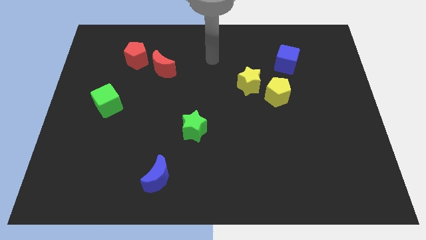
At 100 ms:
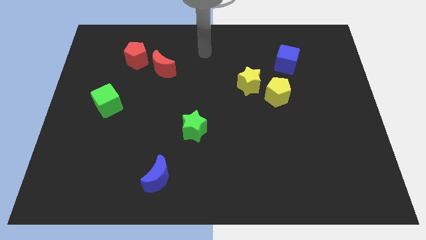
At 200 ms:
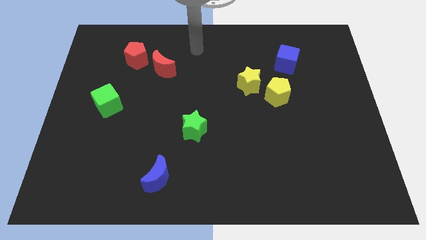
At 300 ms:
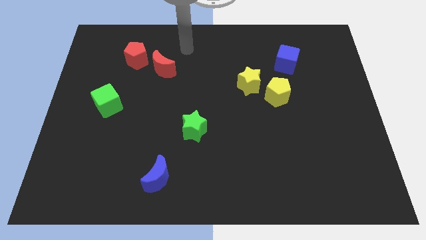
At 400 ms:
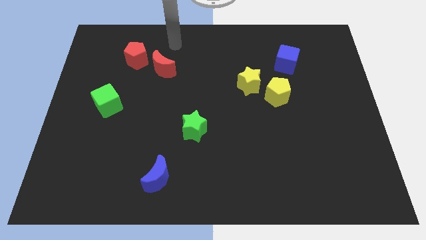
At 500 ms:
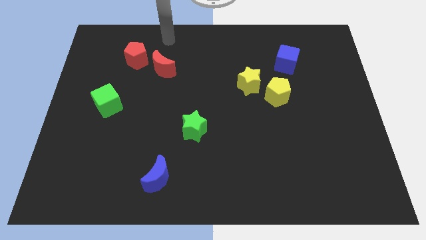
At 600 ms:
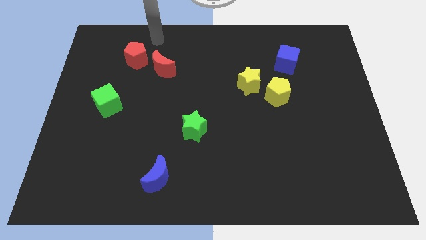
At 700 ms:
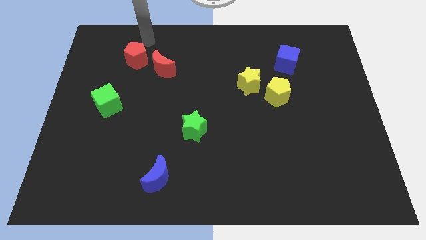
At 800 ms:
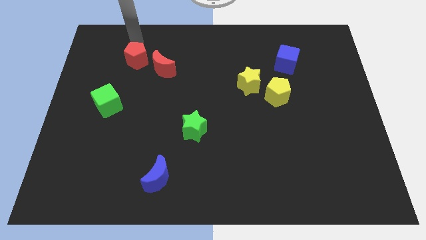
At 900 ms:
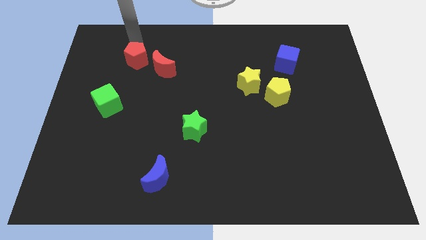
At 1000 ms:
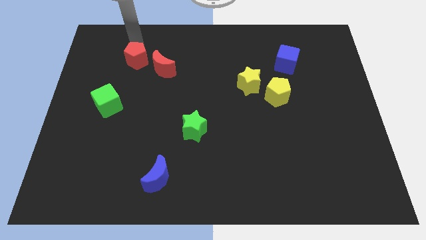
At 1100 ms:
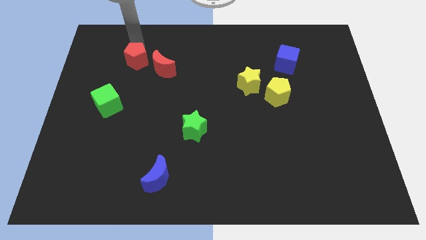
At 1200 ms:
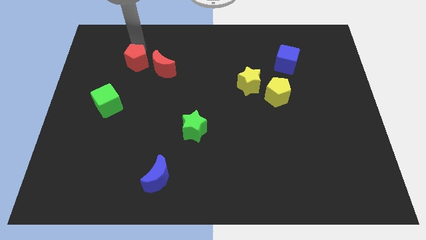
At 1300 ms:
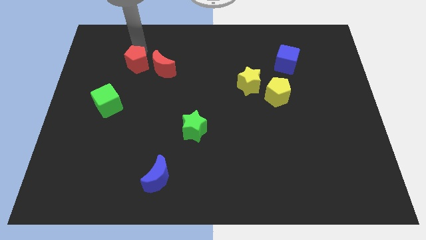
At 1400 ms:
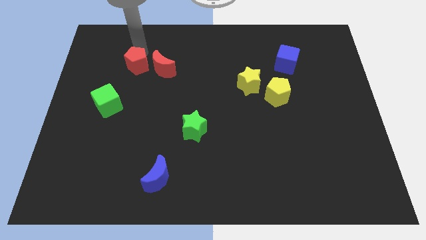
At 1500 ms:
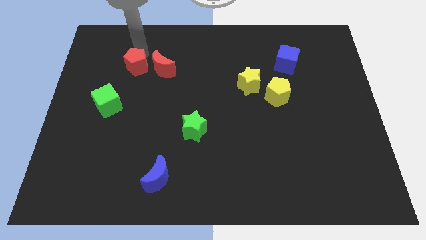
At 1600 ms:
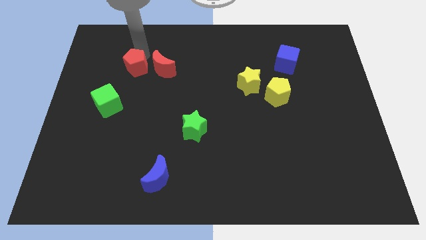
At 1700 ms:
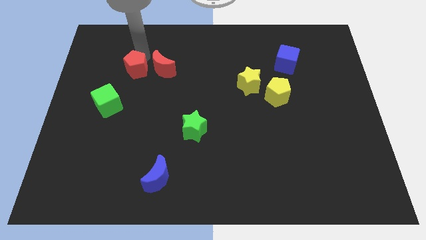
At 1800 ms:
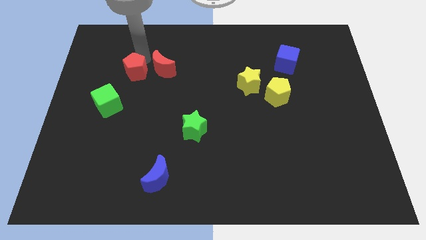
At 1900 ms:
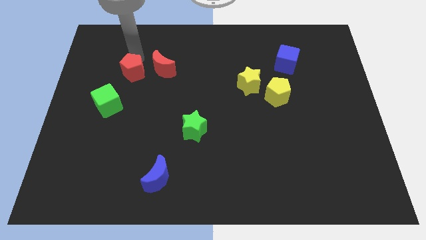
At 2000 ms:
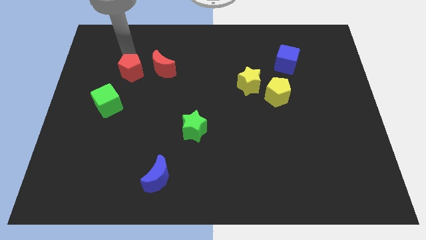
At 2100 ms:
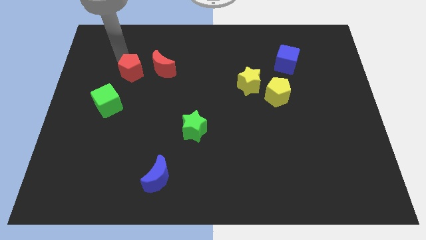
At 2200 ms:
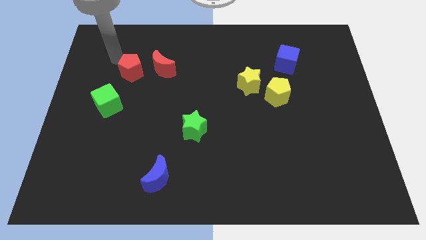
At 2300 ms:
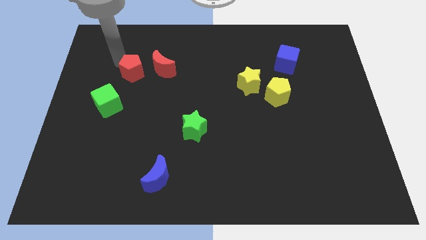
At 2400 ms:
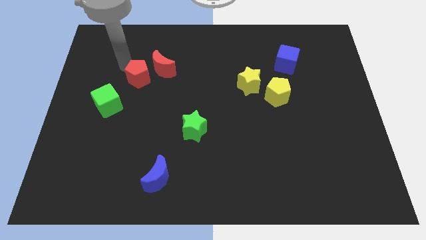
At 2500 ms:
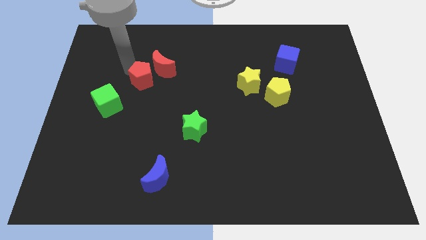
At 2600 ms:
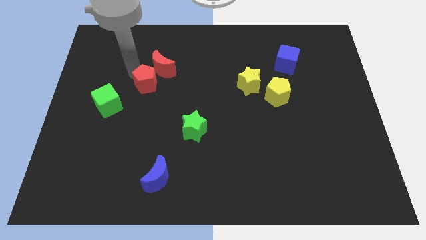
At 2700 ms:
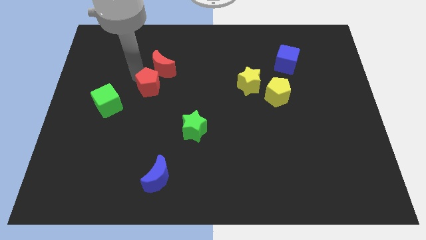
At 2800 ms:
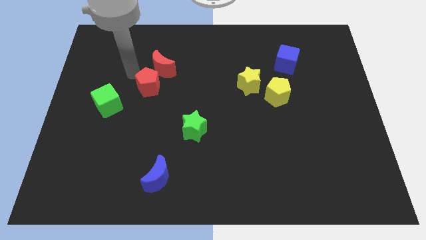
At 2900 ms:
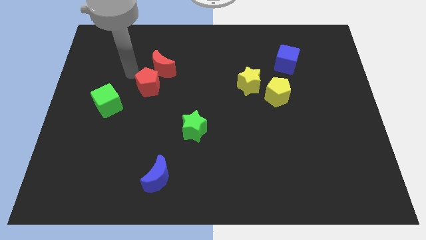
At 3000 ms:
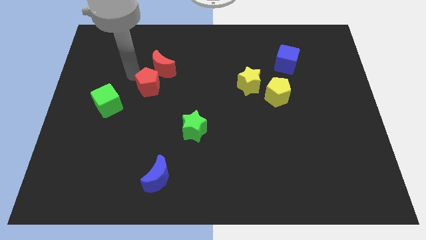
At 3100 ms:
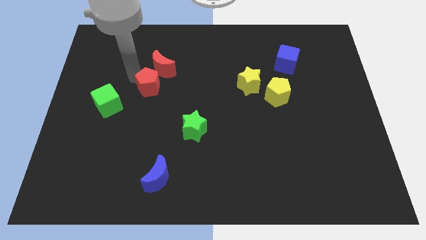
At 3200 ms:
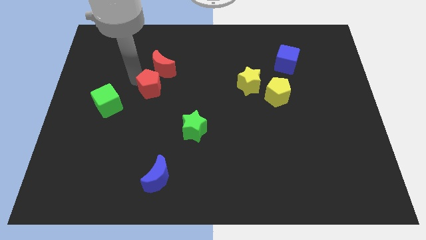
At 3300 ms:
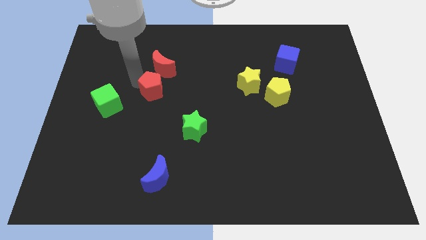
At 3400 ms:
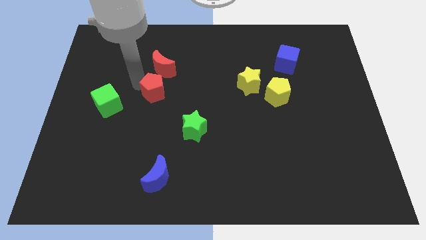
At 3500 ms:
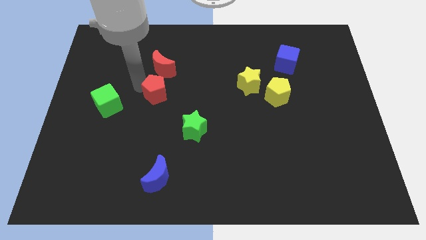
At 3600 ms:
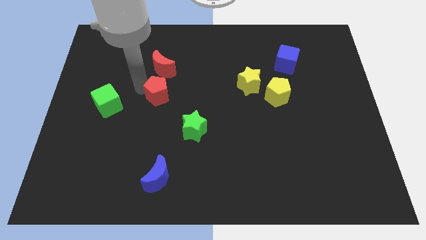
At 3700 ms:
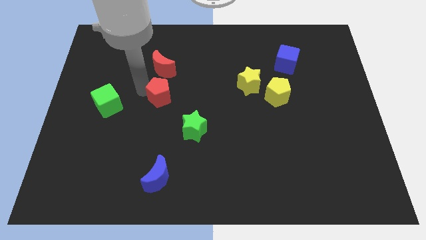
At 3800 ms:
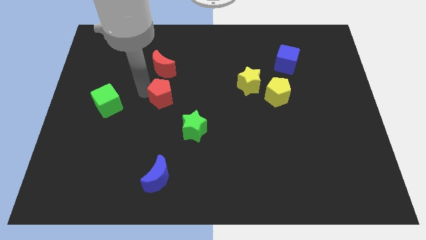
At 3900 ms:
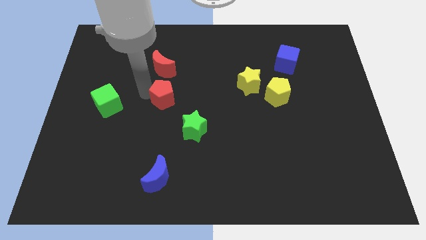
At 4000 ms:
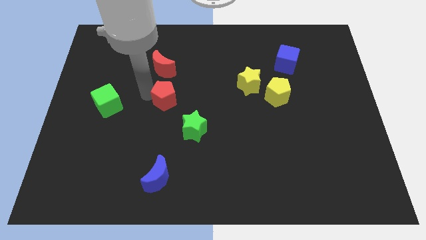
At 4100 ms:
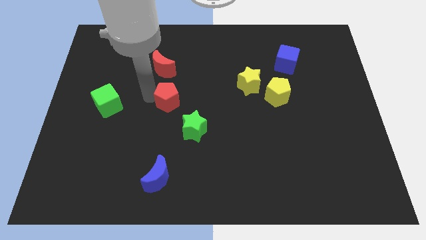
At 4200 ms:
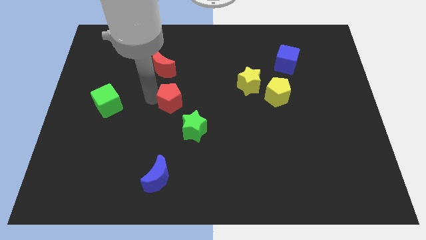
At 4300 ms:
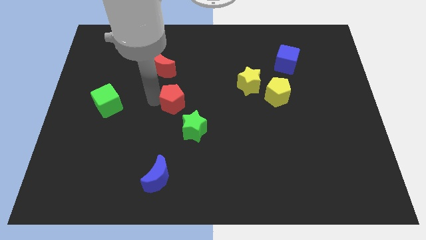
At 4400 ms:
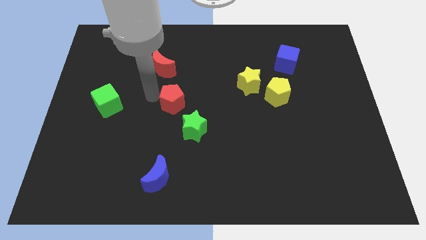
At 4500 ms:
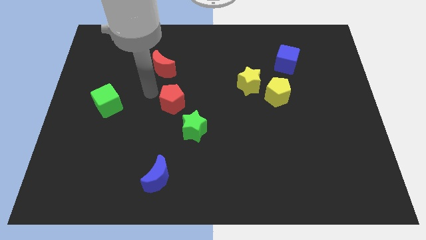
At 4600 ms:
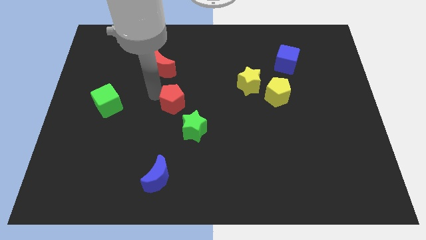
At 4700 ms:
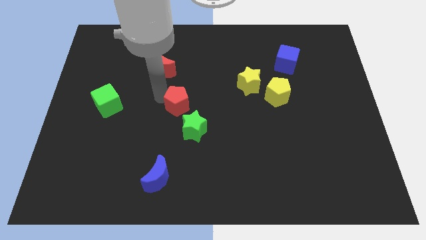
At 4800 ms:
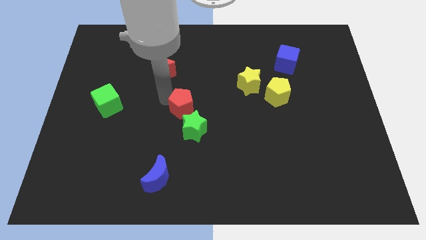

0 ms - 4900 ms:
move the red pentagon down and right diagonally

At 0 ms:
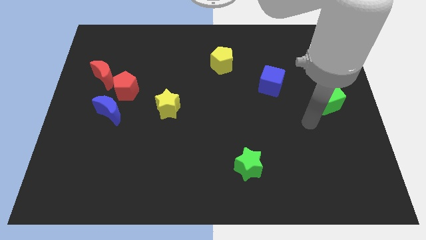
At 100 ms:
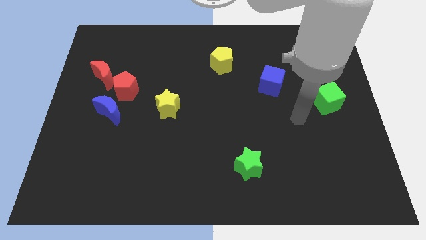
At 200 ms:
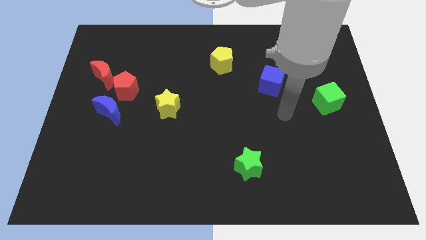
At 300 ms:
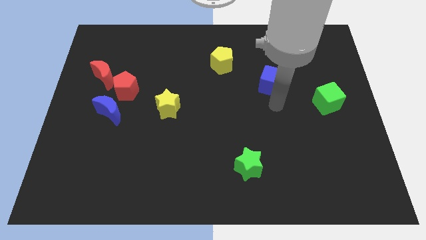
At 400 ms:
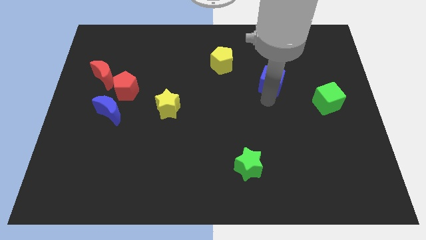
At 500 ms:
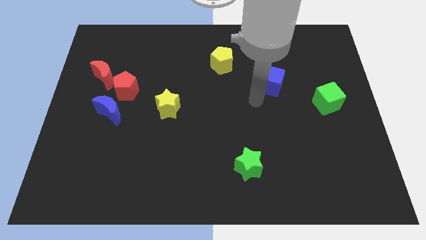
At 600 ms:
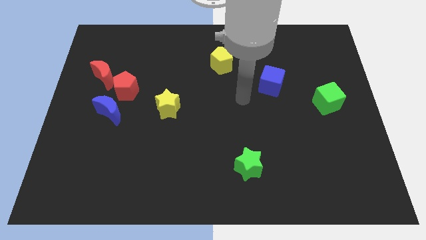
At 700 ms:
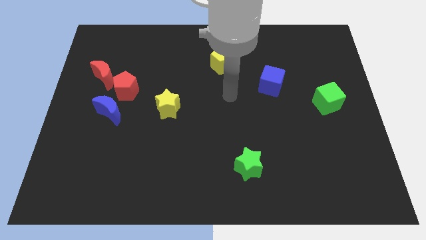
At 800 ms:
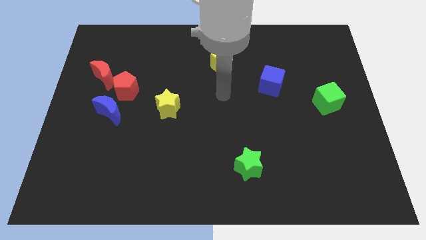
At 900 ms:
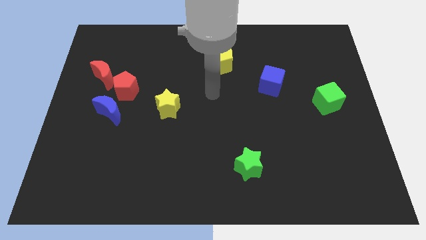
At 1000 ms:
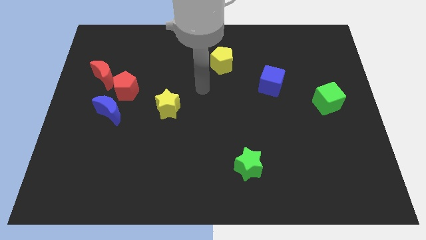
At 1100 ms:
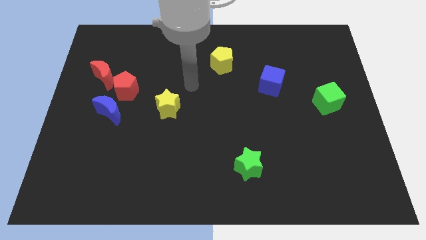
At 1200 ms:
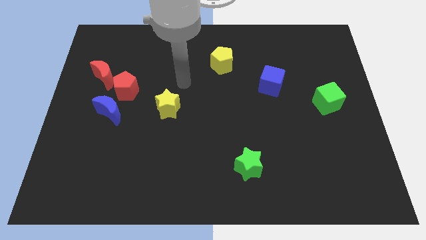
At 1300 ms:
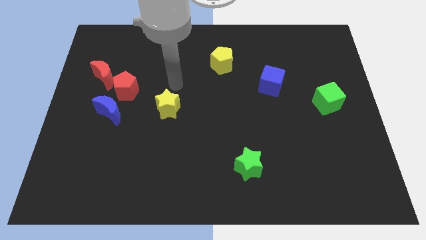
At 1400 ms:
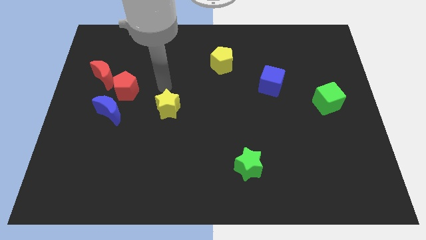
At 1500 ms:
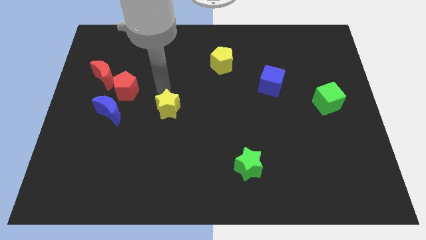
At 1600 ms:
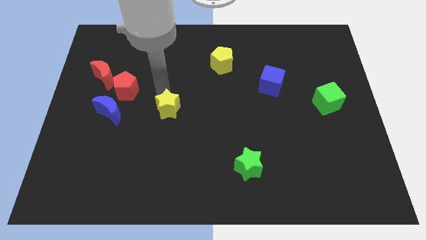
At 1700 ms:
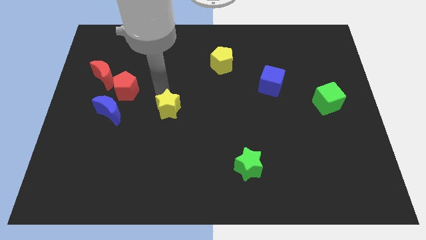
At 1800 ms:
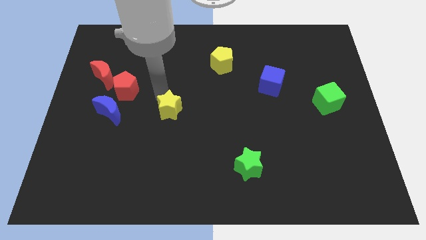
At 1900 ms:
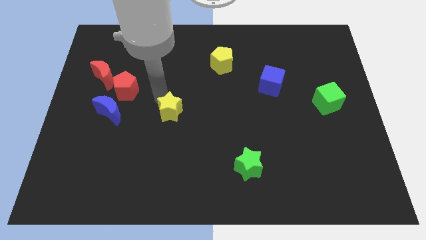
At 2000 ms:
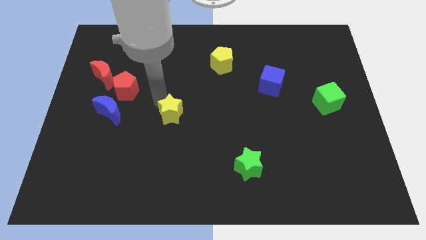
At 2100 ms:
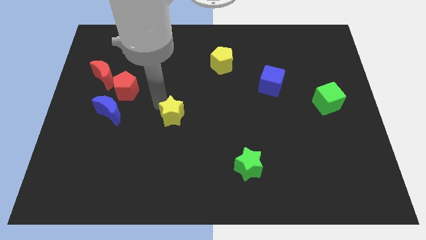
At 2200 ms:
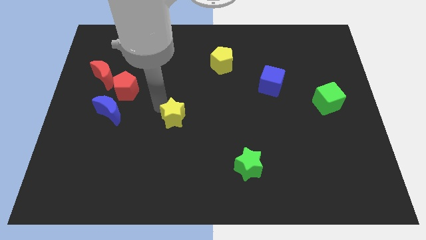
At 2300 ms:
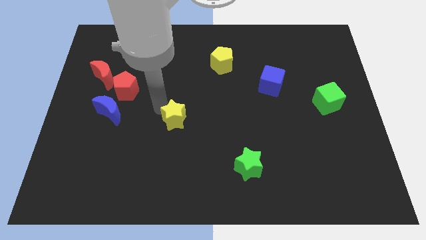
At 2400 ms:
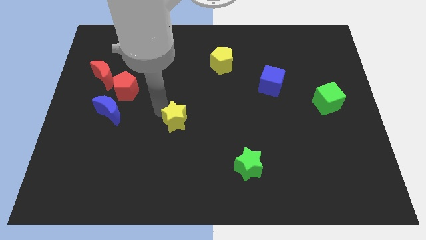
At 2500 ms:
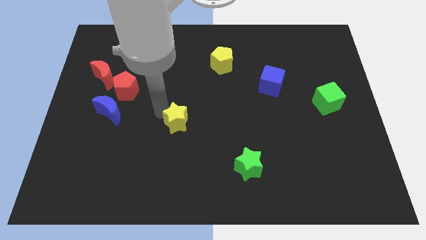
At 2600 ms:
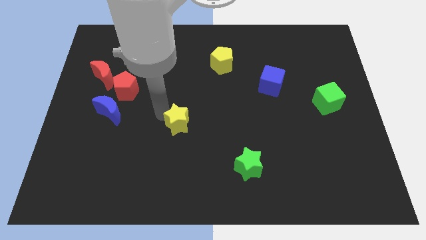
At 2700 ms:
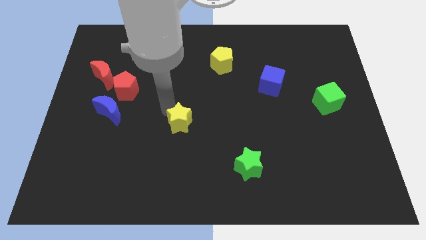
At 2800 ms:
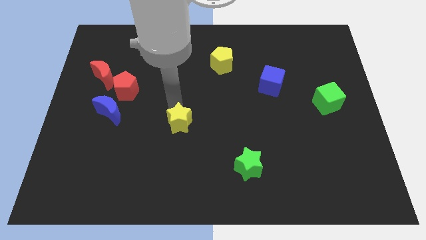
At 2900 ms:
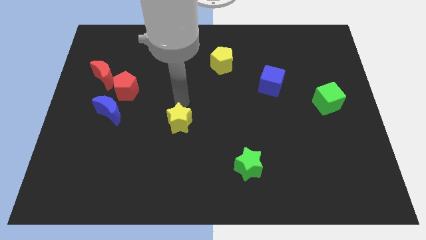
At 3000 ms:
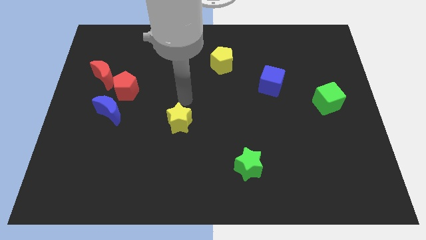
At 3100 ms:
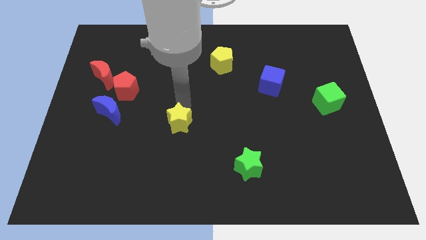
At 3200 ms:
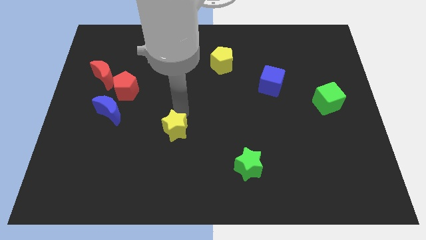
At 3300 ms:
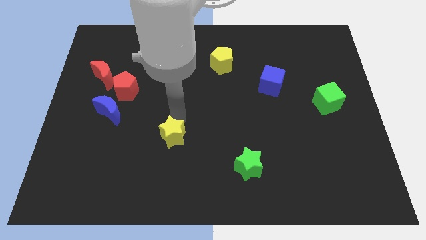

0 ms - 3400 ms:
move the yellow star downwards somewhat
